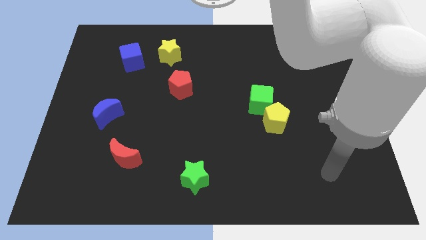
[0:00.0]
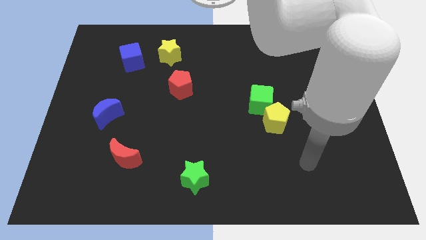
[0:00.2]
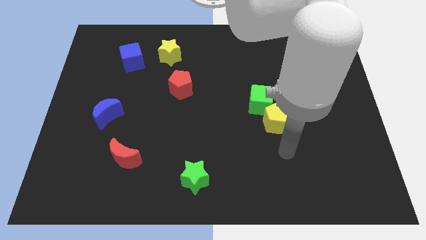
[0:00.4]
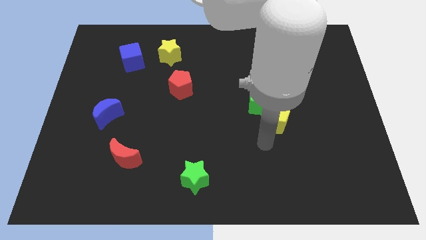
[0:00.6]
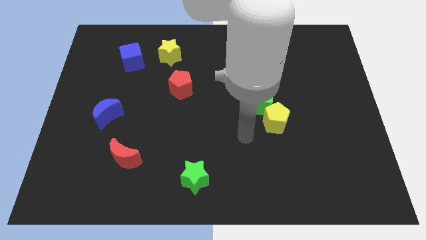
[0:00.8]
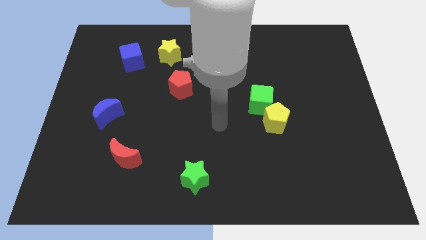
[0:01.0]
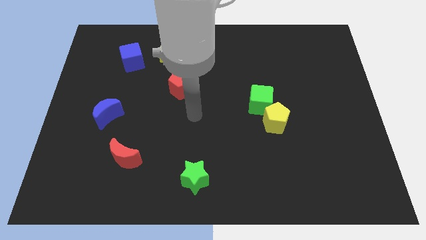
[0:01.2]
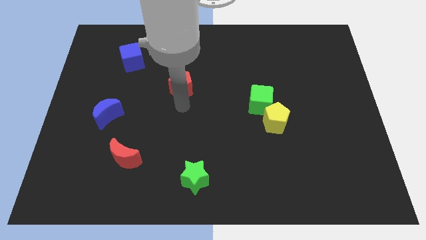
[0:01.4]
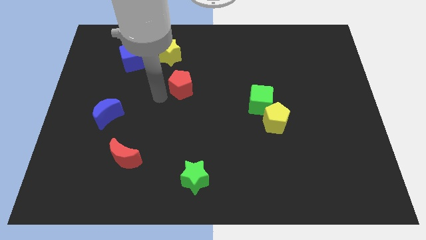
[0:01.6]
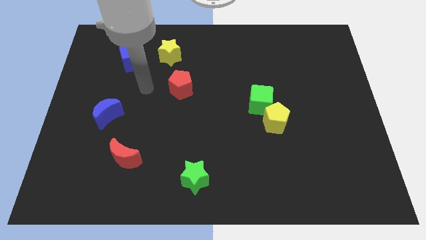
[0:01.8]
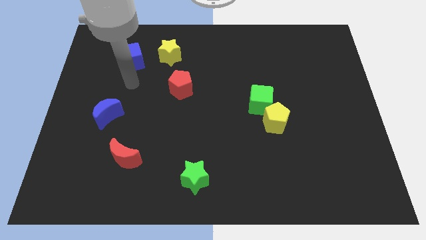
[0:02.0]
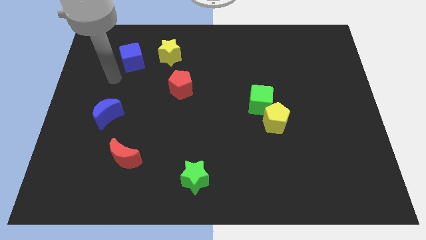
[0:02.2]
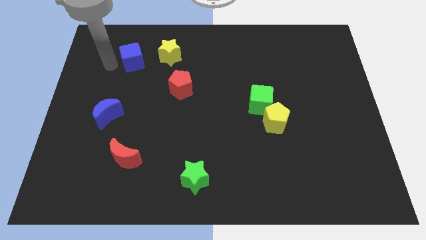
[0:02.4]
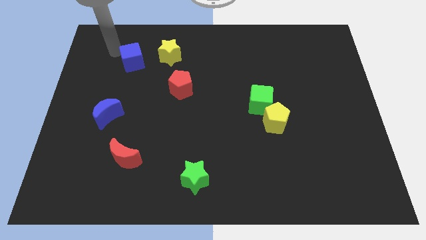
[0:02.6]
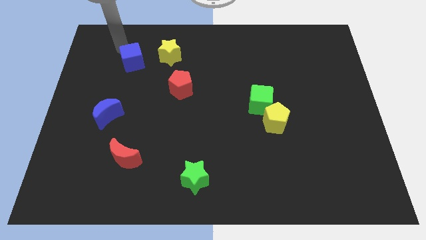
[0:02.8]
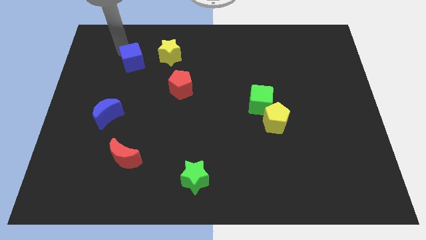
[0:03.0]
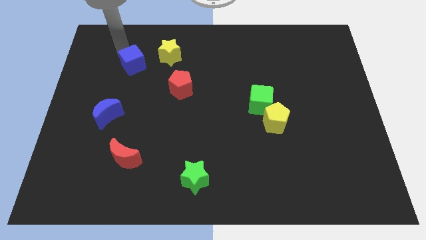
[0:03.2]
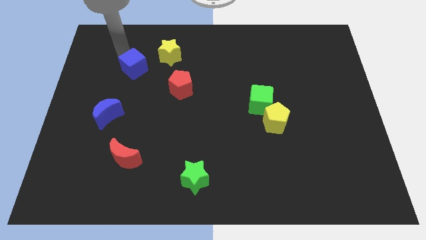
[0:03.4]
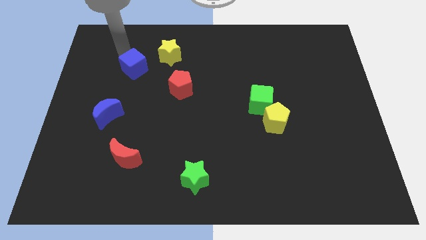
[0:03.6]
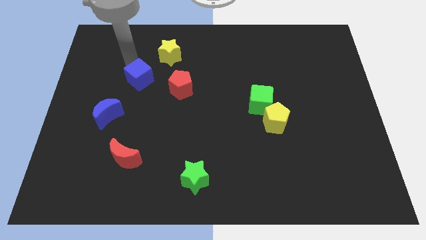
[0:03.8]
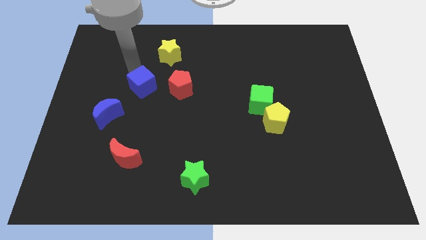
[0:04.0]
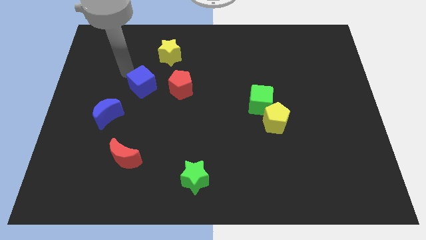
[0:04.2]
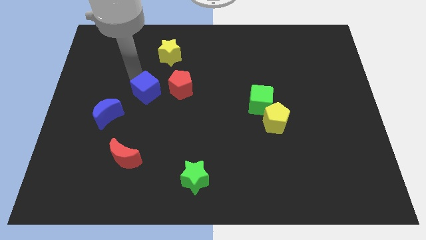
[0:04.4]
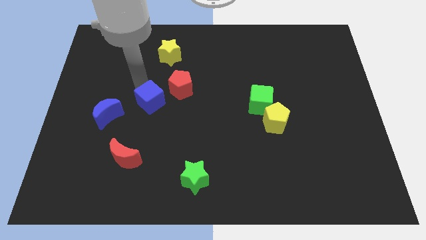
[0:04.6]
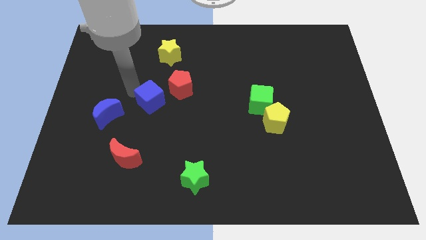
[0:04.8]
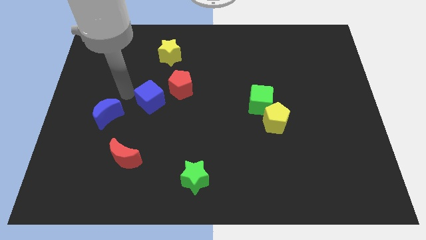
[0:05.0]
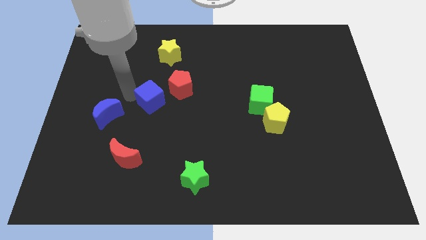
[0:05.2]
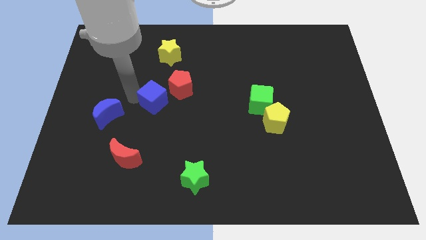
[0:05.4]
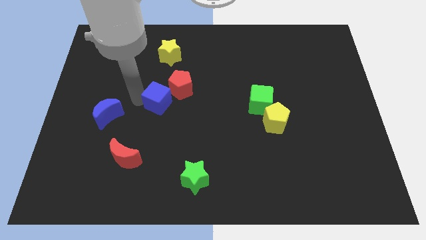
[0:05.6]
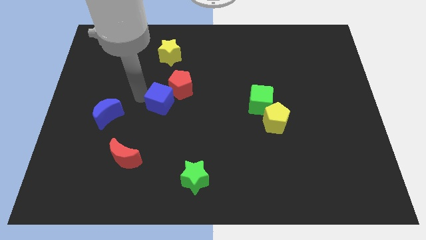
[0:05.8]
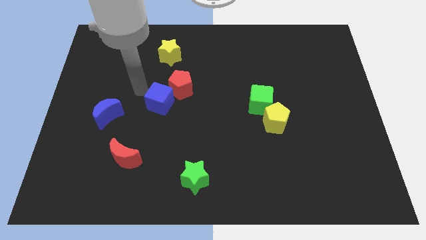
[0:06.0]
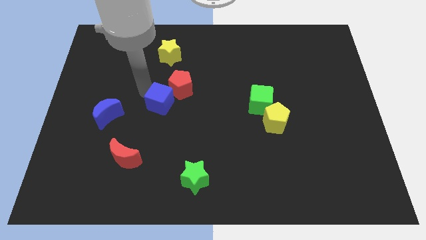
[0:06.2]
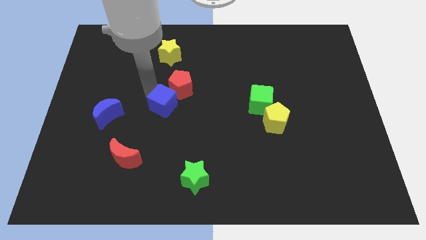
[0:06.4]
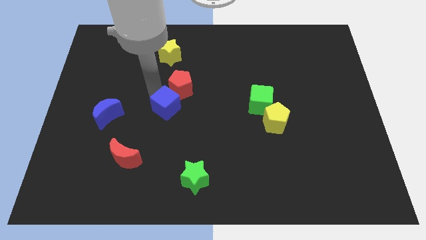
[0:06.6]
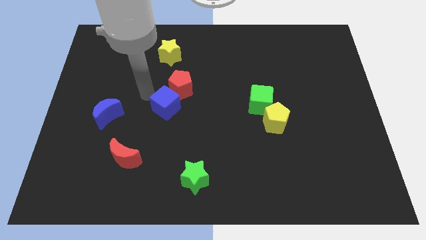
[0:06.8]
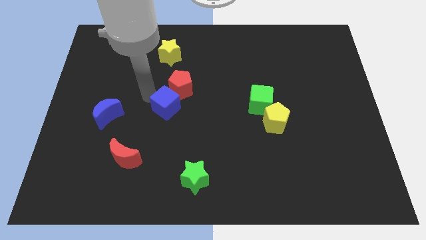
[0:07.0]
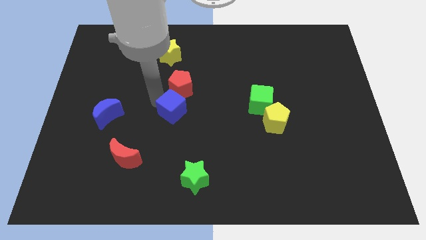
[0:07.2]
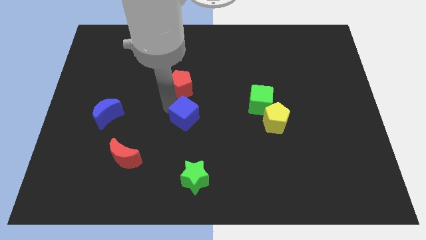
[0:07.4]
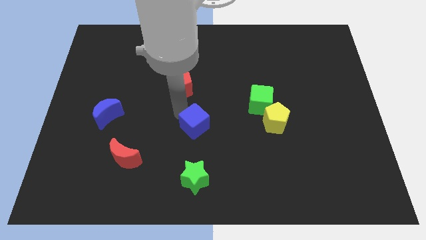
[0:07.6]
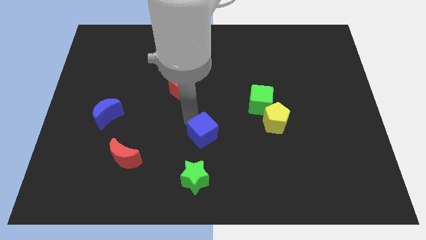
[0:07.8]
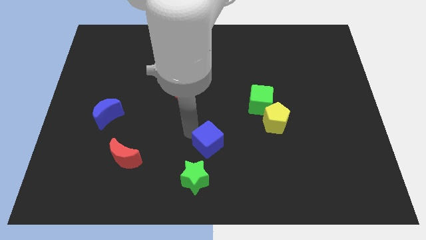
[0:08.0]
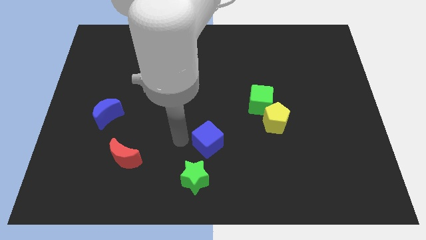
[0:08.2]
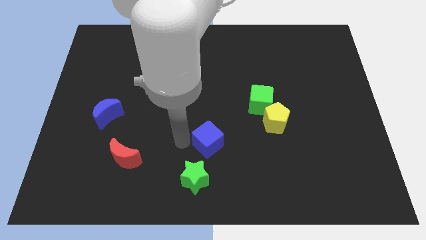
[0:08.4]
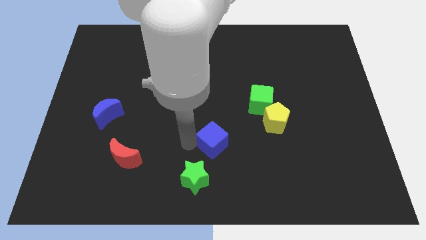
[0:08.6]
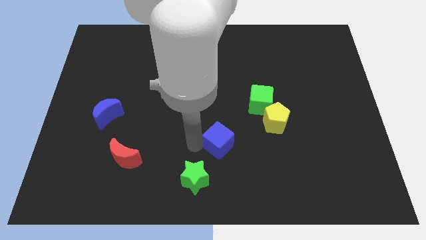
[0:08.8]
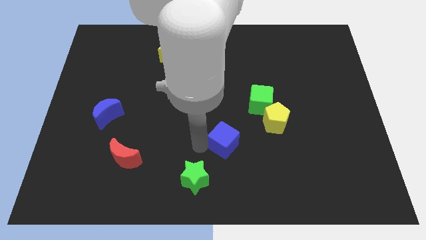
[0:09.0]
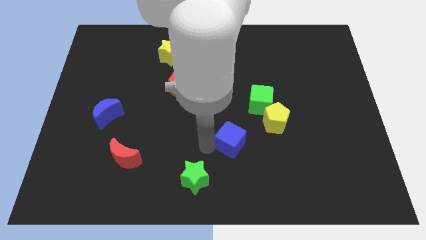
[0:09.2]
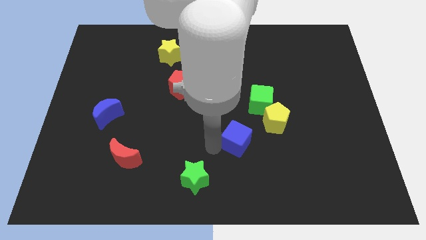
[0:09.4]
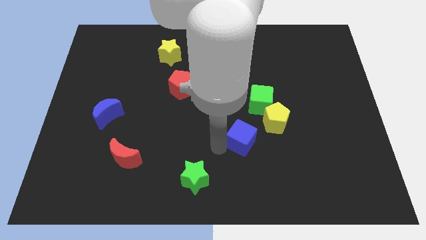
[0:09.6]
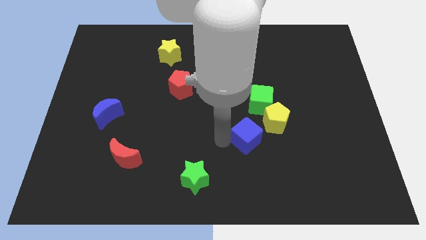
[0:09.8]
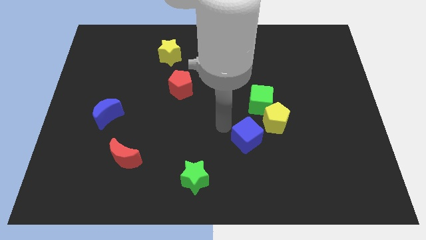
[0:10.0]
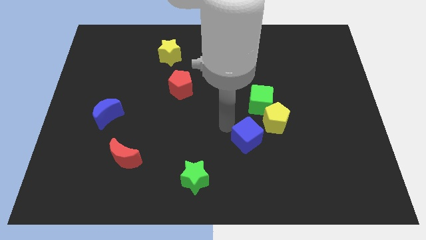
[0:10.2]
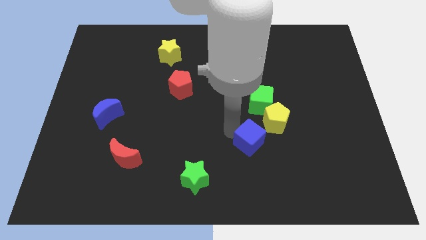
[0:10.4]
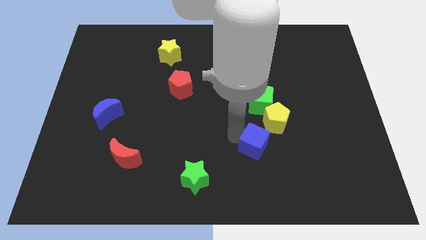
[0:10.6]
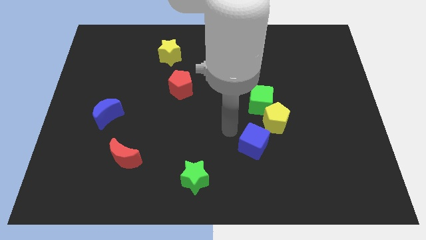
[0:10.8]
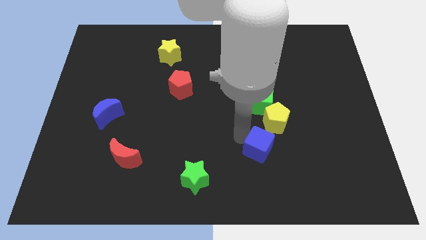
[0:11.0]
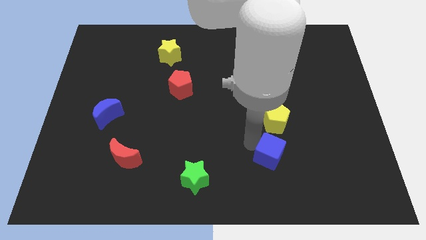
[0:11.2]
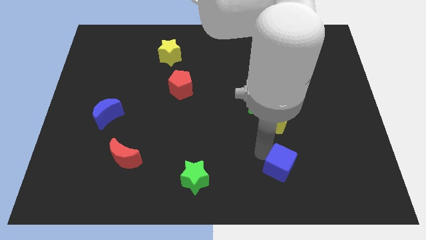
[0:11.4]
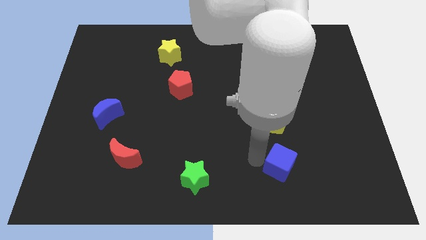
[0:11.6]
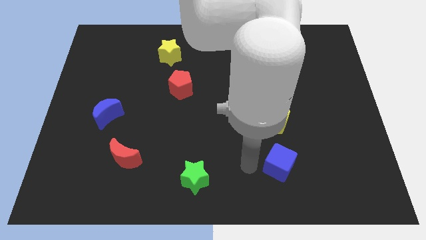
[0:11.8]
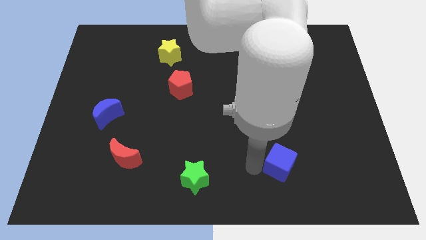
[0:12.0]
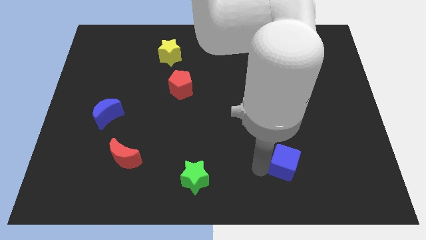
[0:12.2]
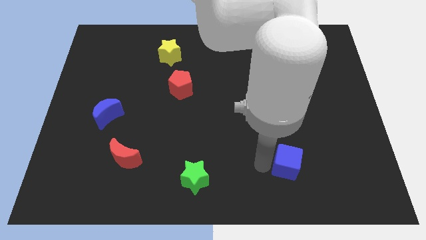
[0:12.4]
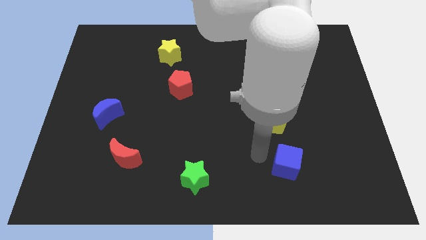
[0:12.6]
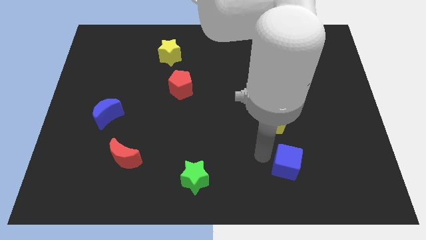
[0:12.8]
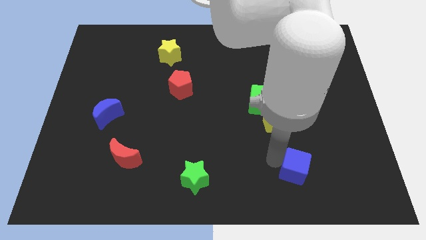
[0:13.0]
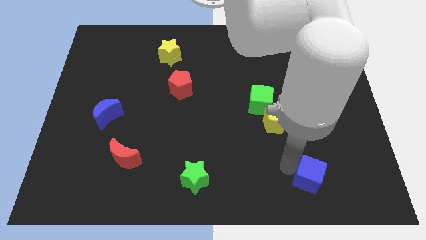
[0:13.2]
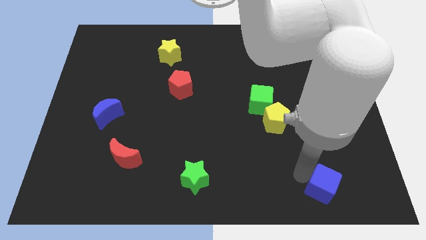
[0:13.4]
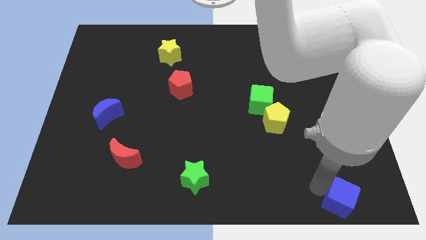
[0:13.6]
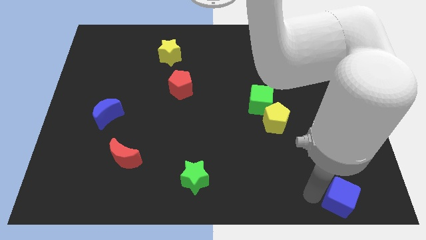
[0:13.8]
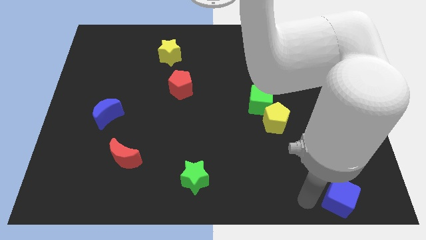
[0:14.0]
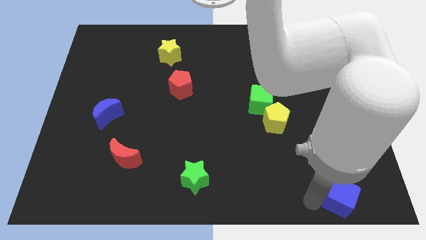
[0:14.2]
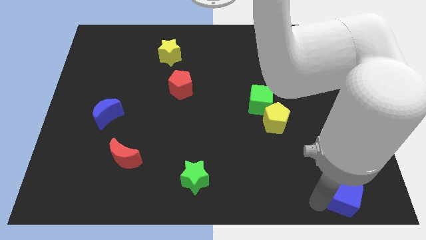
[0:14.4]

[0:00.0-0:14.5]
slide the blue cube to the bottom right corner
